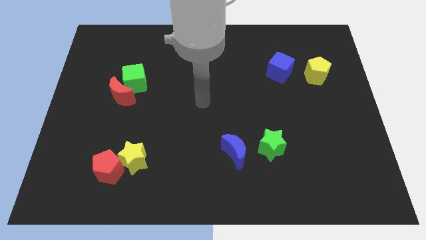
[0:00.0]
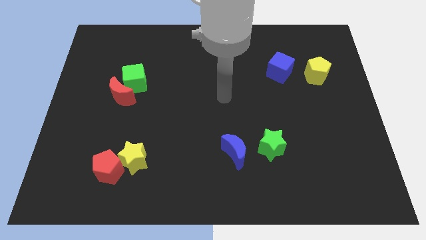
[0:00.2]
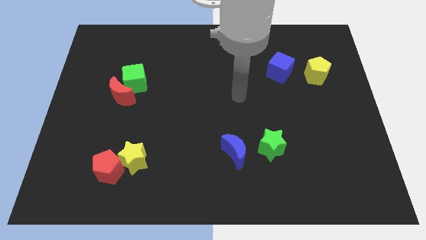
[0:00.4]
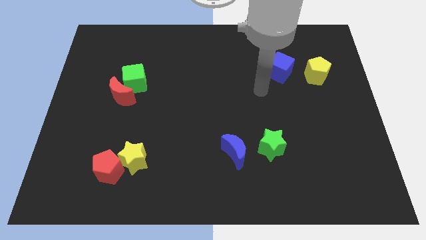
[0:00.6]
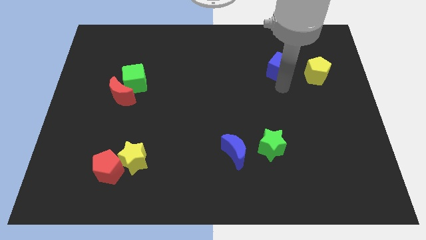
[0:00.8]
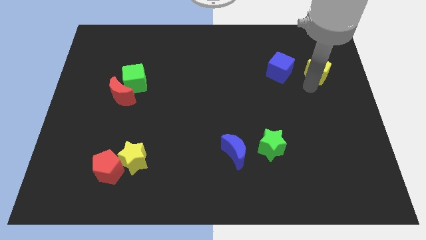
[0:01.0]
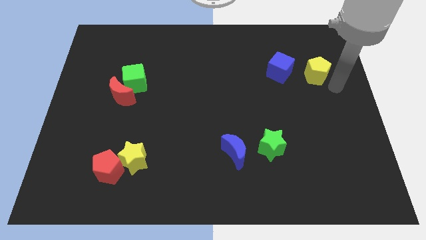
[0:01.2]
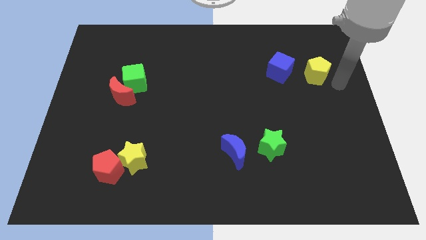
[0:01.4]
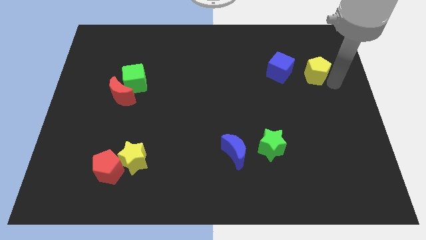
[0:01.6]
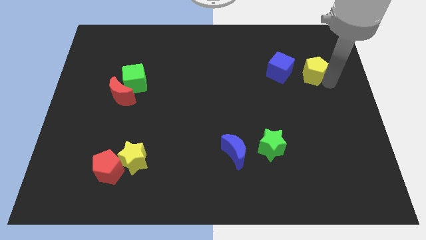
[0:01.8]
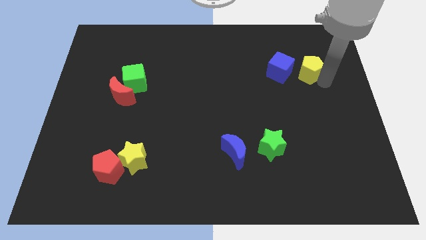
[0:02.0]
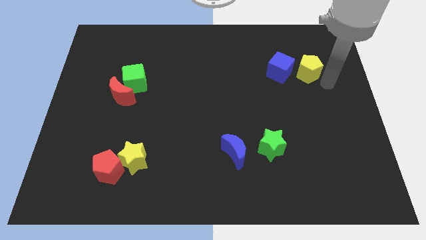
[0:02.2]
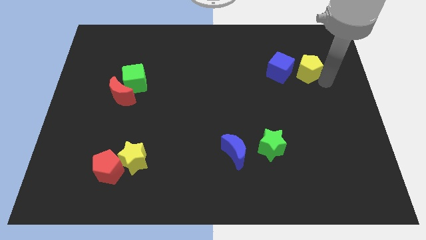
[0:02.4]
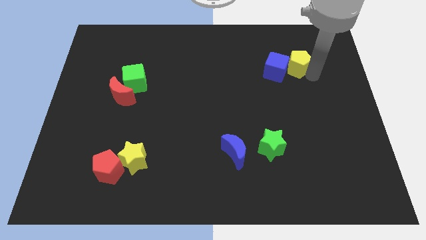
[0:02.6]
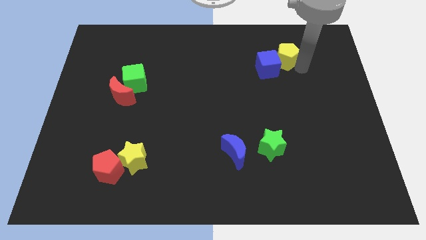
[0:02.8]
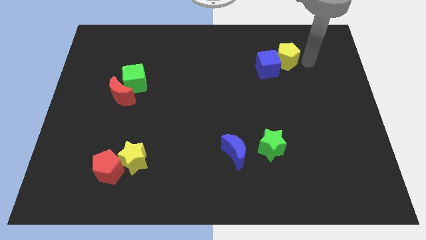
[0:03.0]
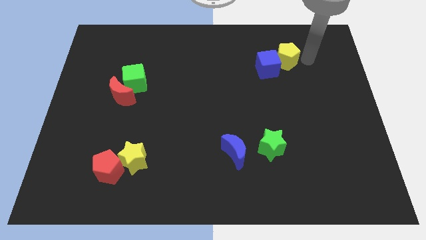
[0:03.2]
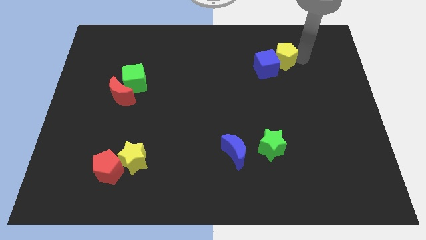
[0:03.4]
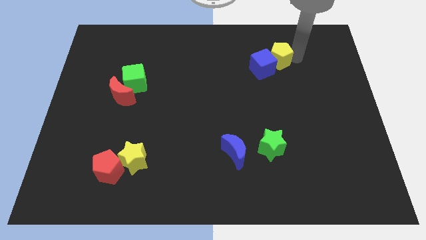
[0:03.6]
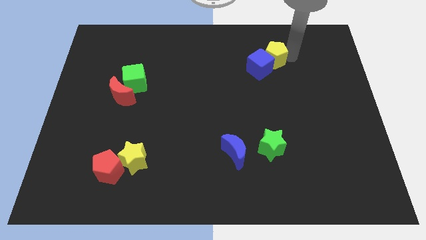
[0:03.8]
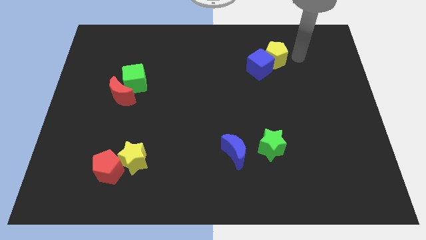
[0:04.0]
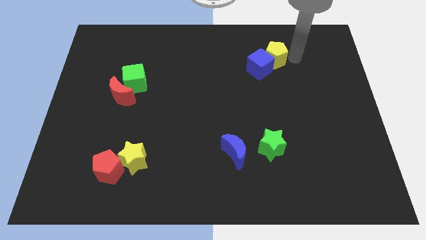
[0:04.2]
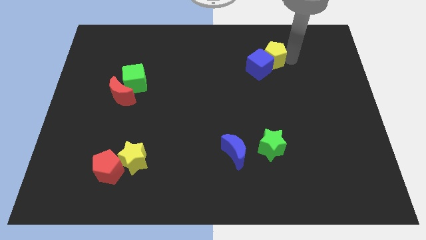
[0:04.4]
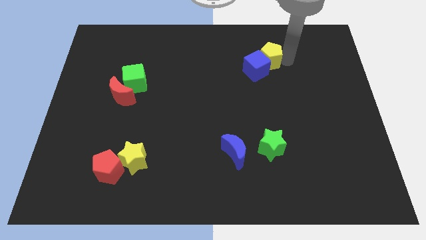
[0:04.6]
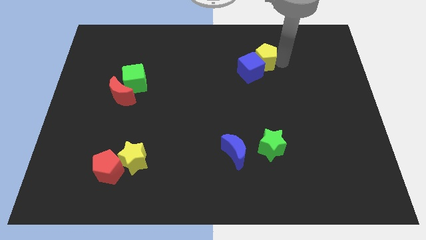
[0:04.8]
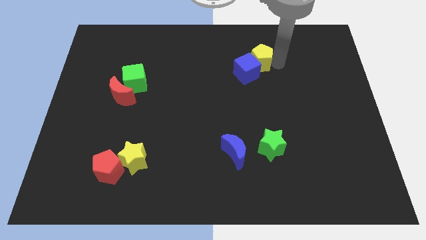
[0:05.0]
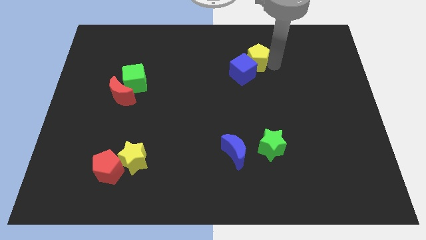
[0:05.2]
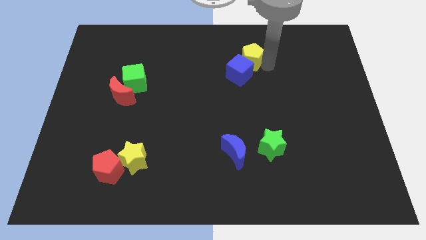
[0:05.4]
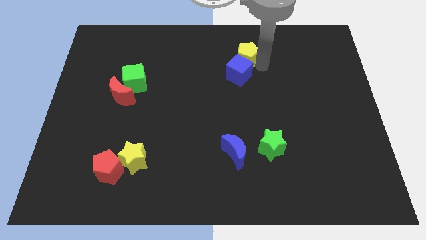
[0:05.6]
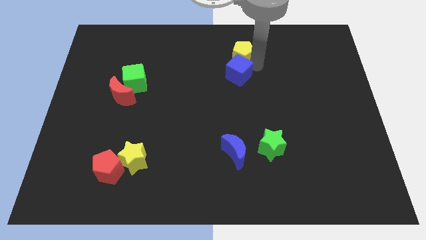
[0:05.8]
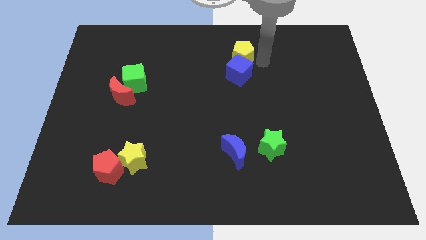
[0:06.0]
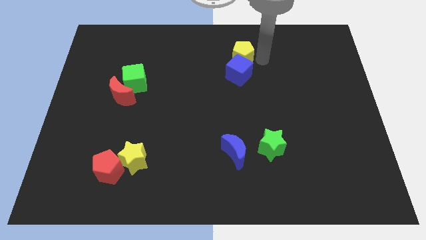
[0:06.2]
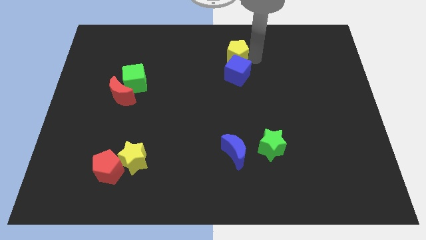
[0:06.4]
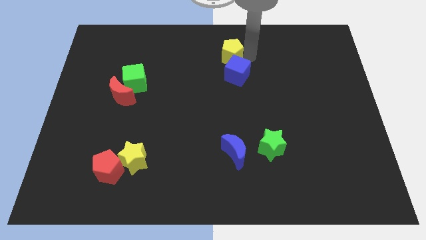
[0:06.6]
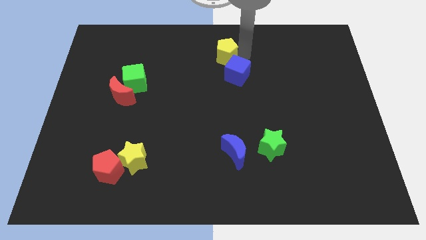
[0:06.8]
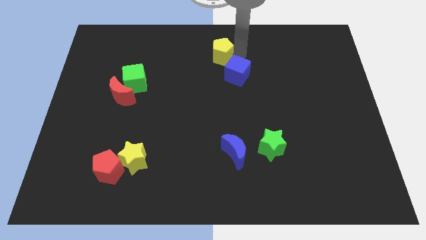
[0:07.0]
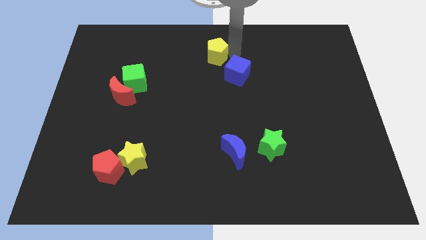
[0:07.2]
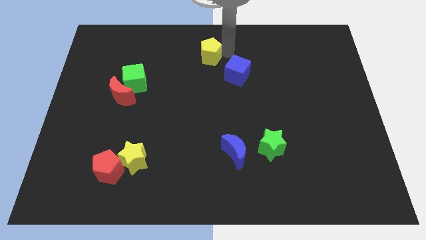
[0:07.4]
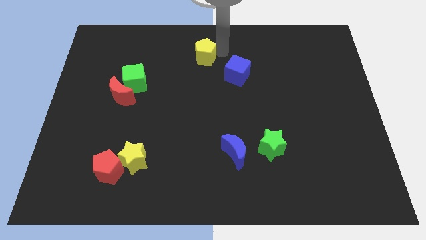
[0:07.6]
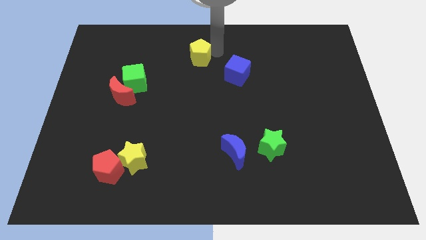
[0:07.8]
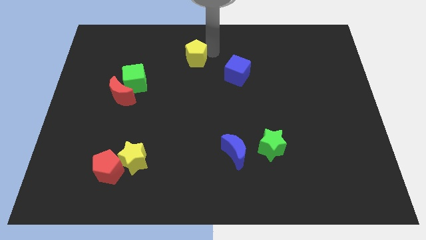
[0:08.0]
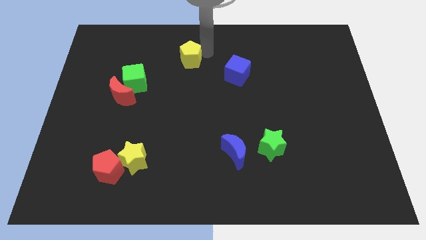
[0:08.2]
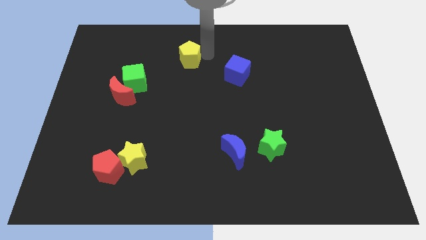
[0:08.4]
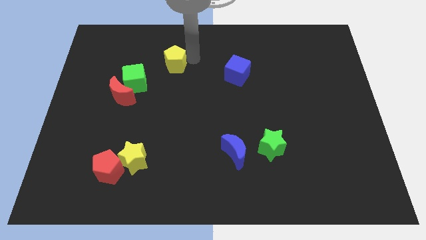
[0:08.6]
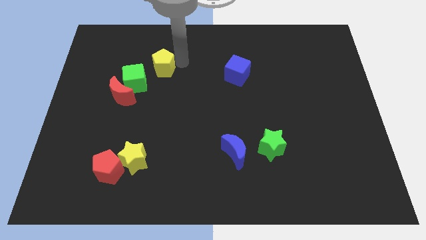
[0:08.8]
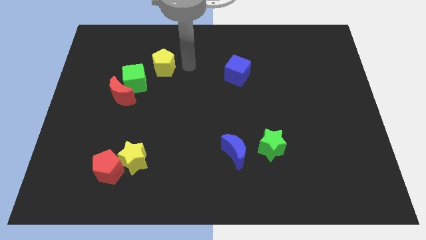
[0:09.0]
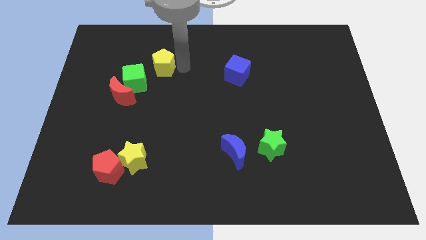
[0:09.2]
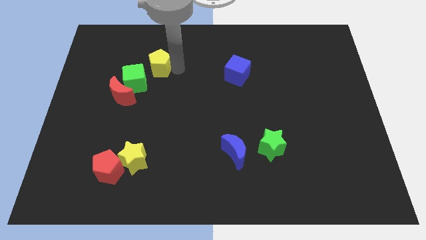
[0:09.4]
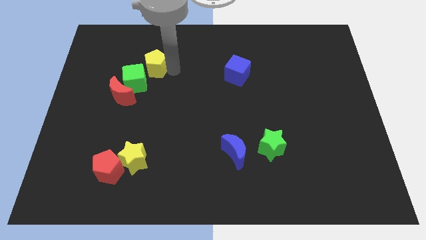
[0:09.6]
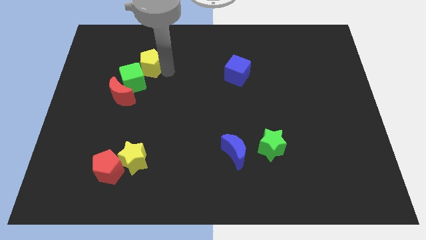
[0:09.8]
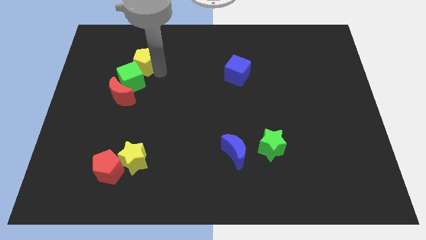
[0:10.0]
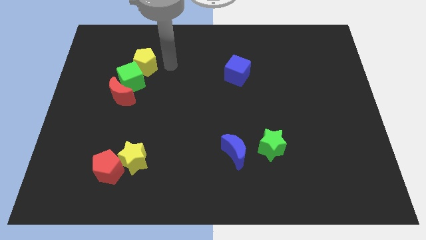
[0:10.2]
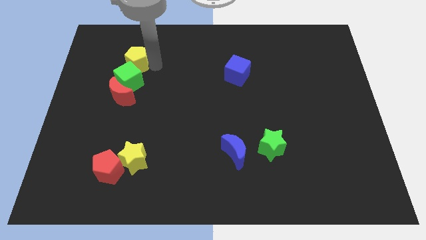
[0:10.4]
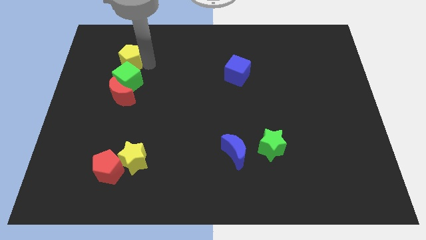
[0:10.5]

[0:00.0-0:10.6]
move the yellow pentagon diagonally up and to the left of the green cube

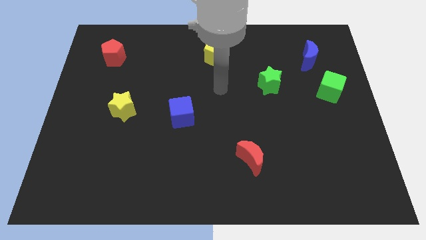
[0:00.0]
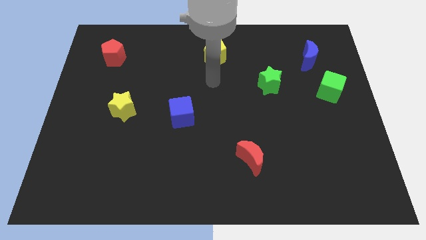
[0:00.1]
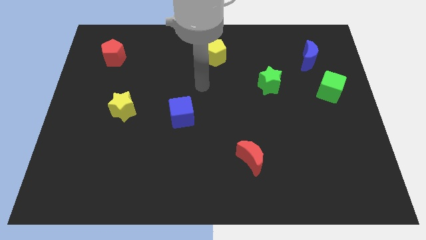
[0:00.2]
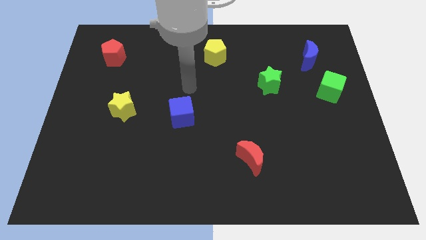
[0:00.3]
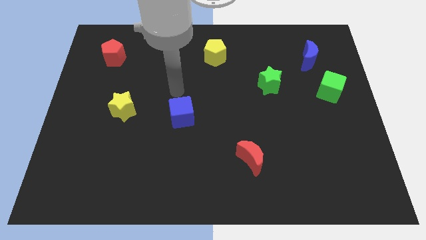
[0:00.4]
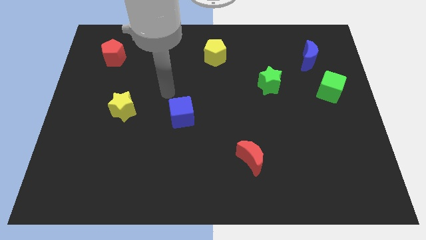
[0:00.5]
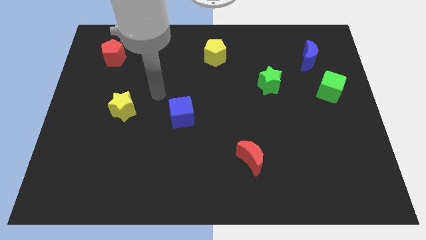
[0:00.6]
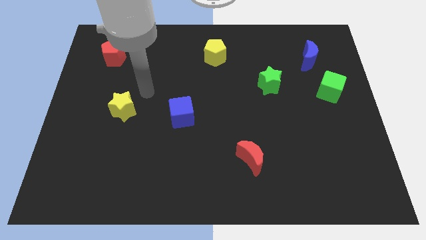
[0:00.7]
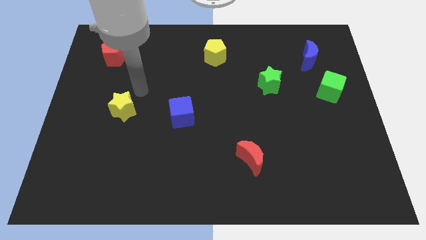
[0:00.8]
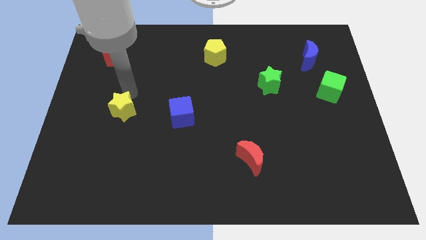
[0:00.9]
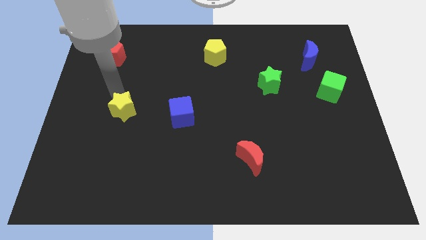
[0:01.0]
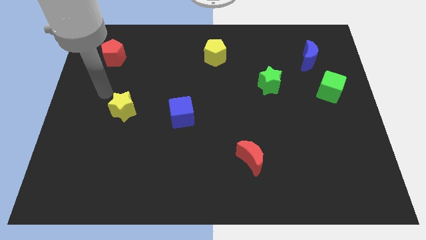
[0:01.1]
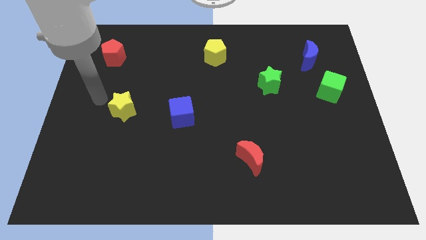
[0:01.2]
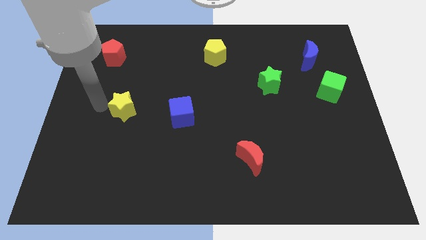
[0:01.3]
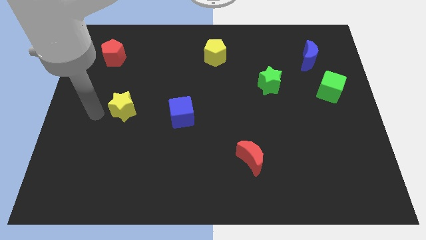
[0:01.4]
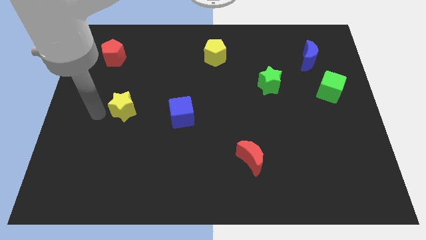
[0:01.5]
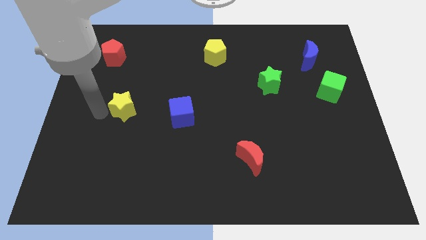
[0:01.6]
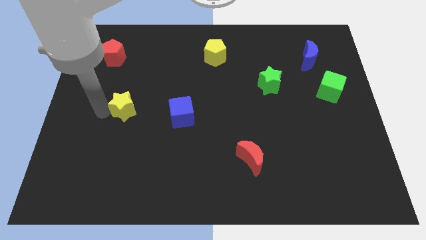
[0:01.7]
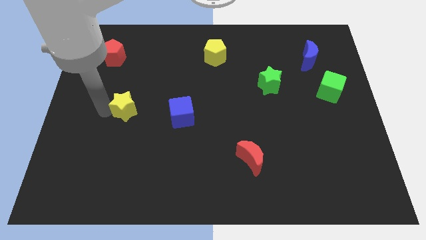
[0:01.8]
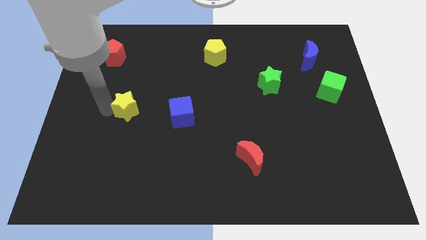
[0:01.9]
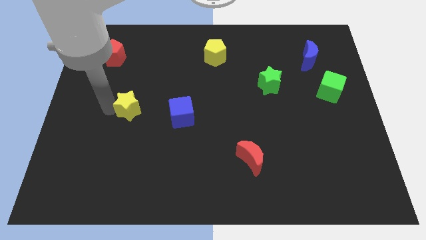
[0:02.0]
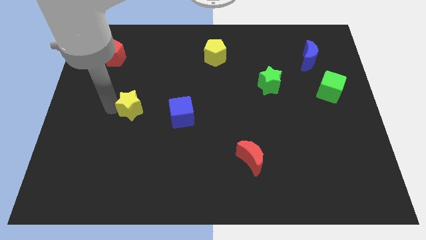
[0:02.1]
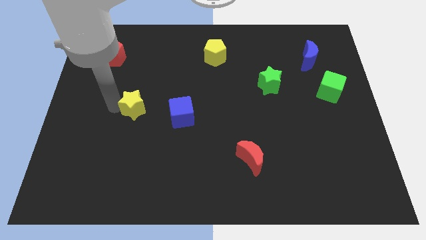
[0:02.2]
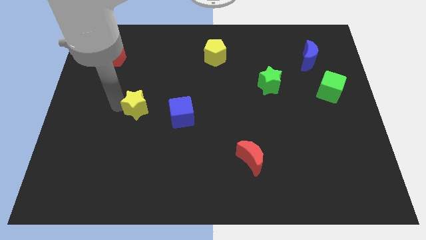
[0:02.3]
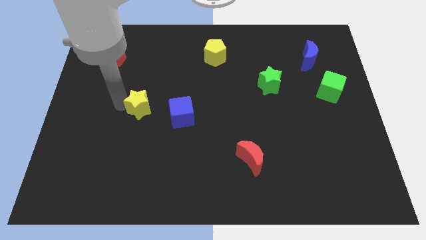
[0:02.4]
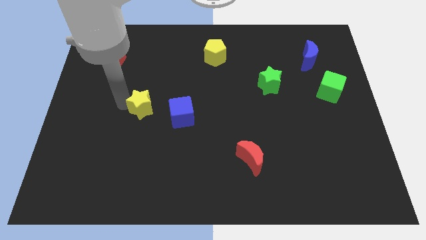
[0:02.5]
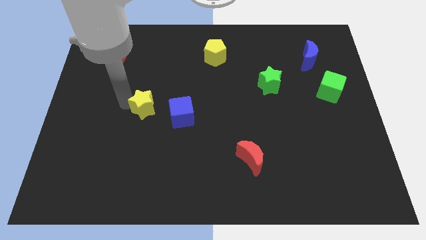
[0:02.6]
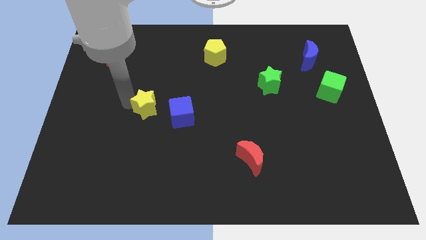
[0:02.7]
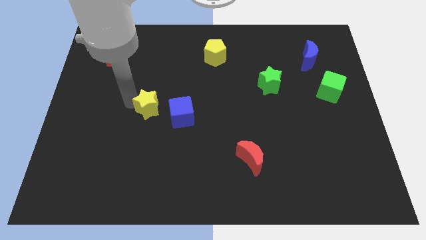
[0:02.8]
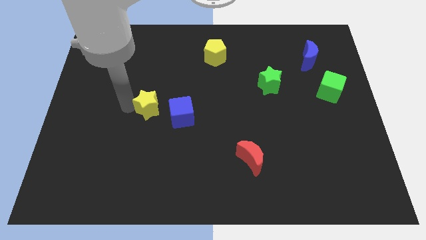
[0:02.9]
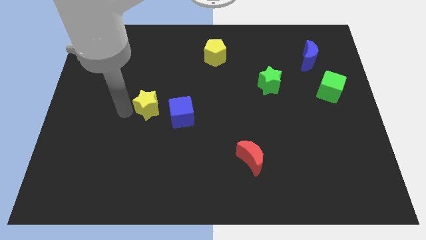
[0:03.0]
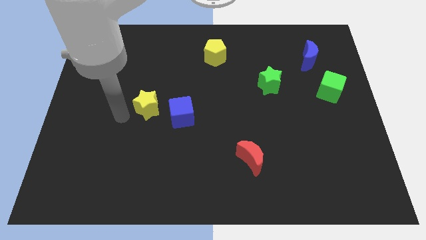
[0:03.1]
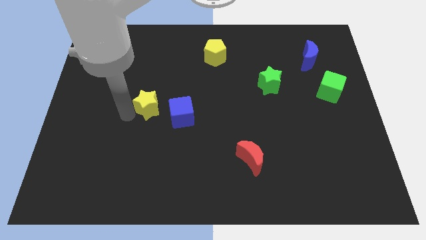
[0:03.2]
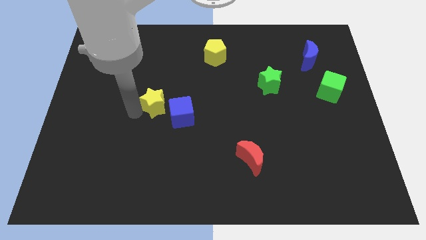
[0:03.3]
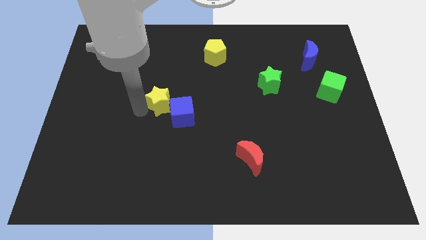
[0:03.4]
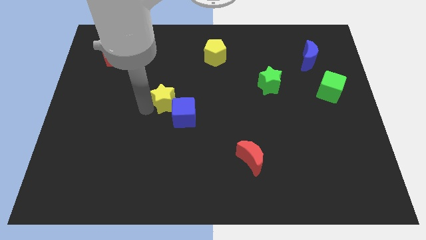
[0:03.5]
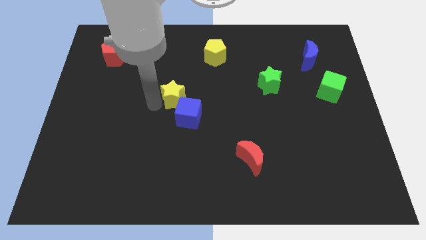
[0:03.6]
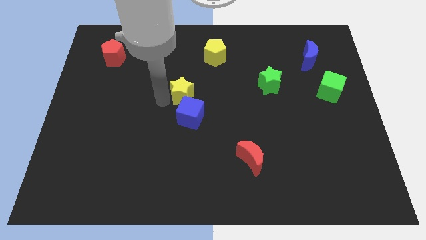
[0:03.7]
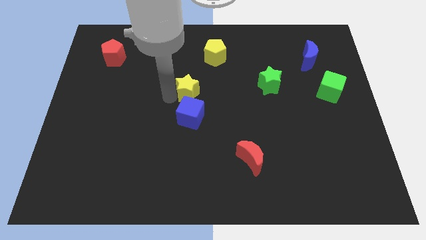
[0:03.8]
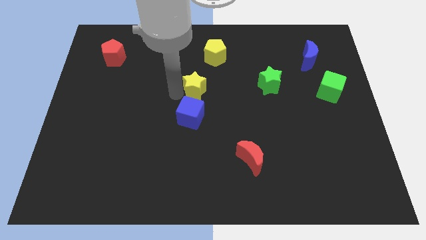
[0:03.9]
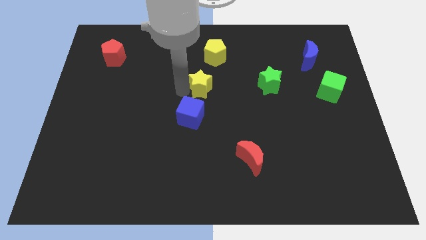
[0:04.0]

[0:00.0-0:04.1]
push the yellow star to the top right side of the blue cube
